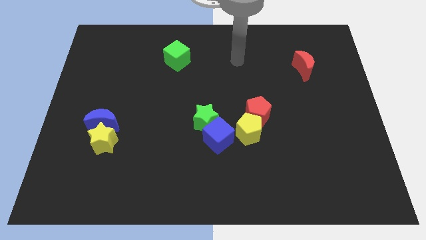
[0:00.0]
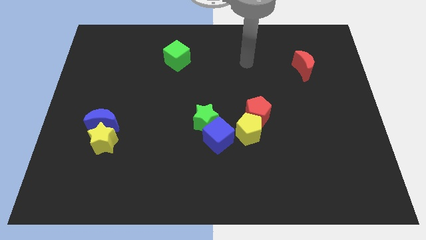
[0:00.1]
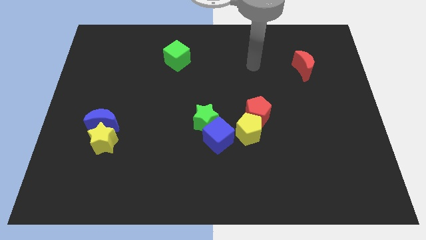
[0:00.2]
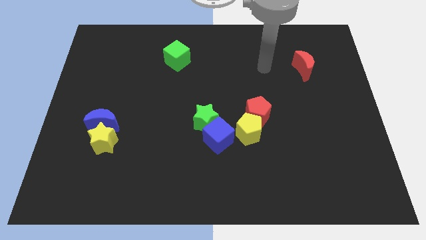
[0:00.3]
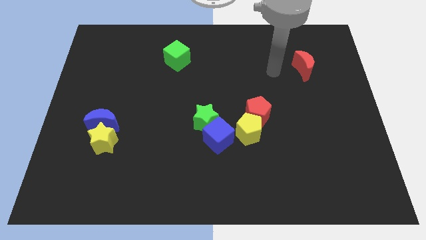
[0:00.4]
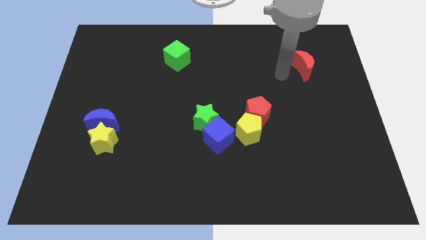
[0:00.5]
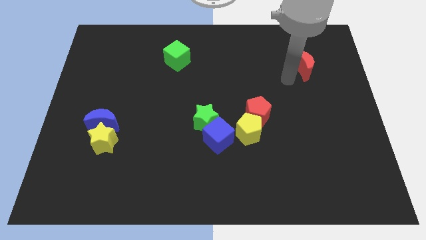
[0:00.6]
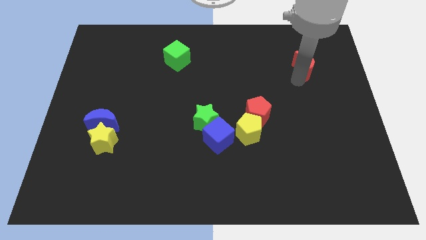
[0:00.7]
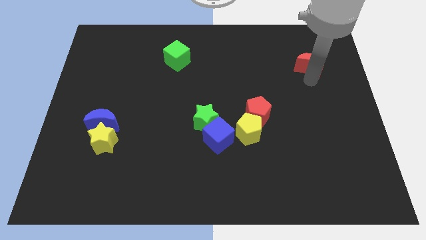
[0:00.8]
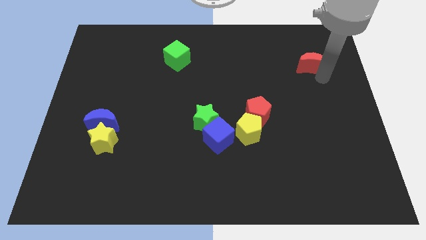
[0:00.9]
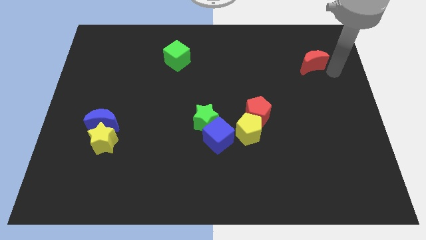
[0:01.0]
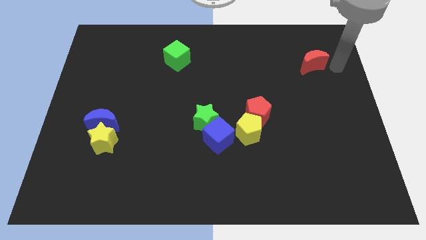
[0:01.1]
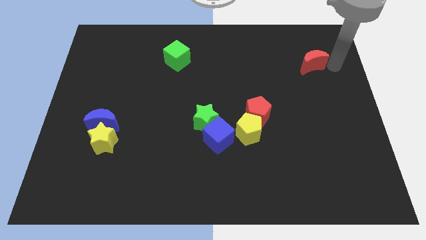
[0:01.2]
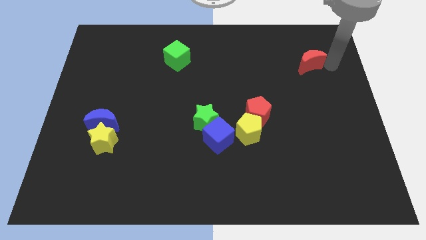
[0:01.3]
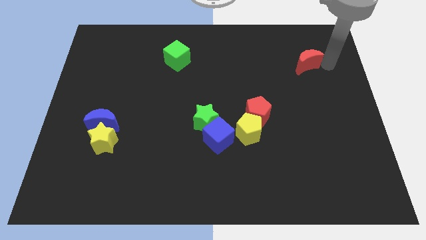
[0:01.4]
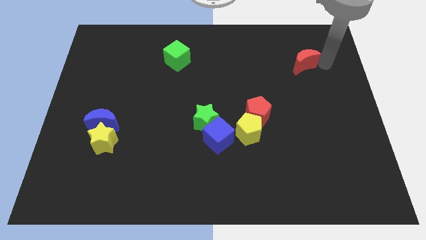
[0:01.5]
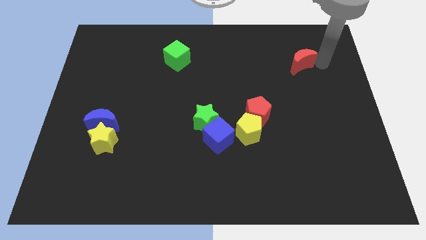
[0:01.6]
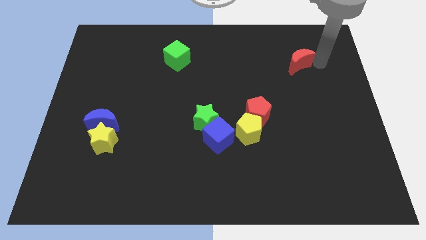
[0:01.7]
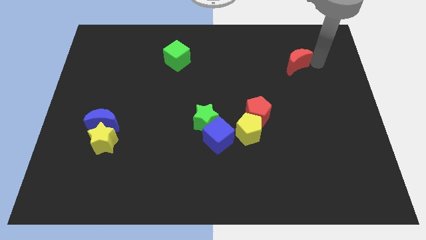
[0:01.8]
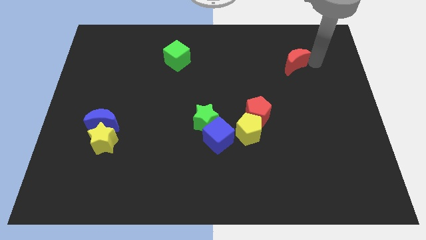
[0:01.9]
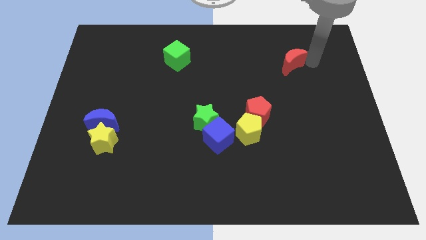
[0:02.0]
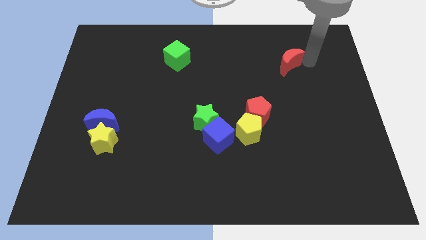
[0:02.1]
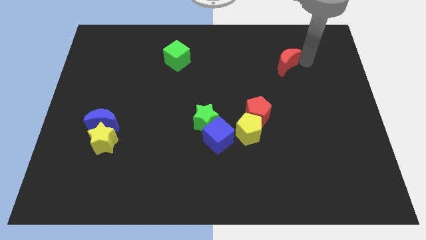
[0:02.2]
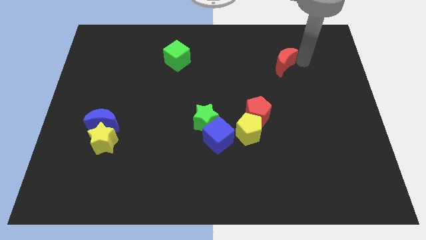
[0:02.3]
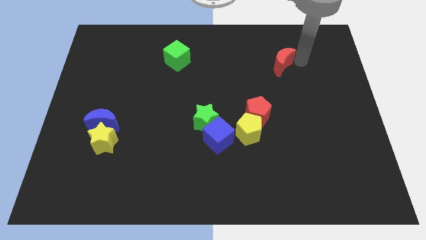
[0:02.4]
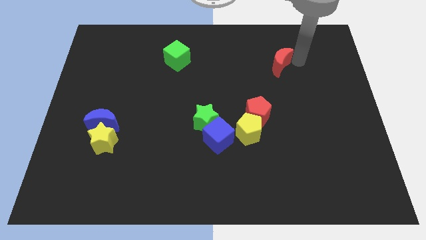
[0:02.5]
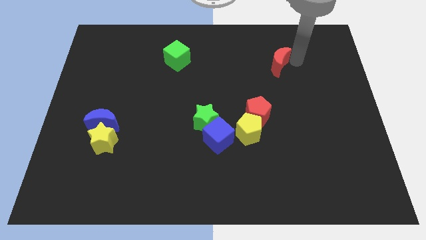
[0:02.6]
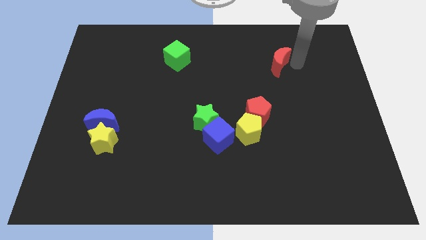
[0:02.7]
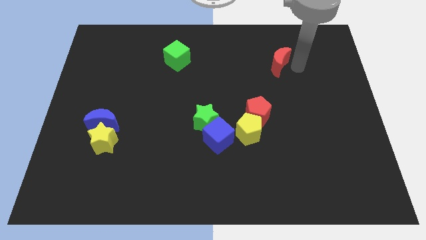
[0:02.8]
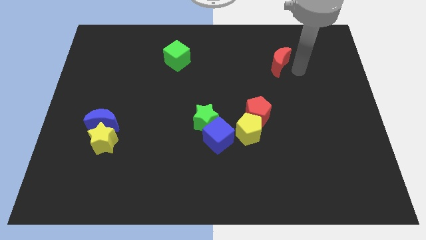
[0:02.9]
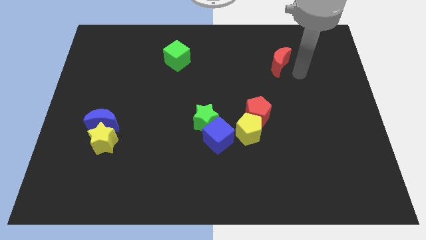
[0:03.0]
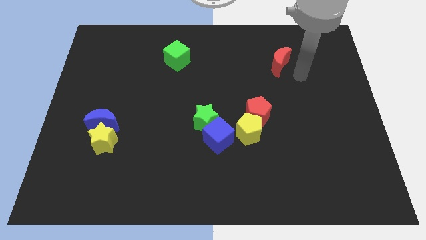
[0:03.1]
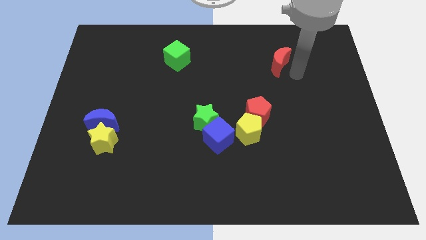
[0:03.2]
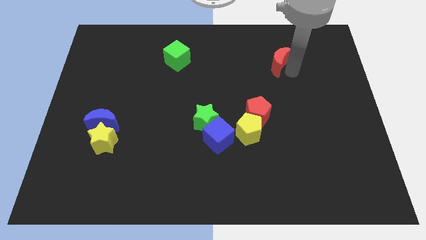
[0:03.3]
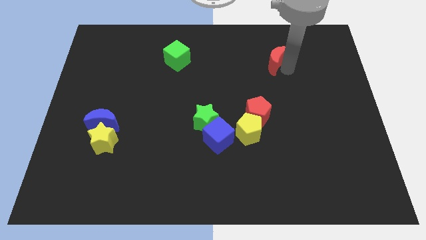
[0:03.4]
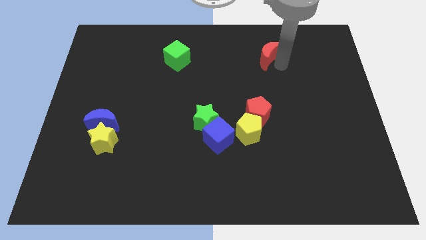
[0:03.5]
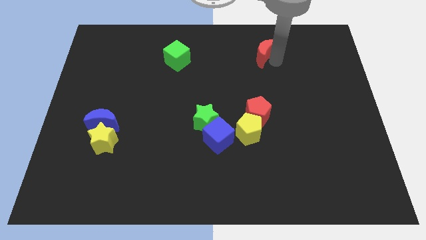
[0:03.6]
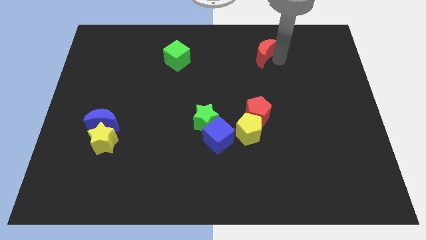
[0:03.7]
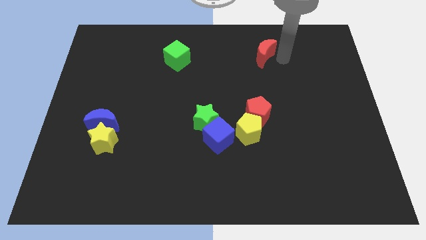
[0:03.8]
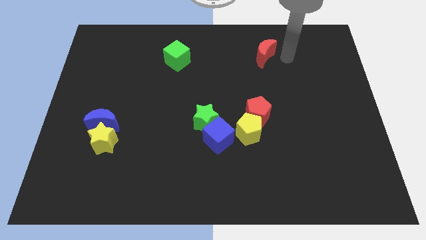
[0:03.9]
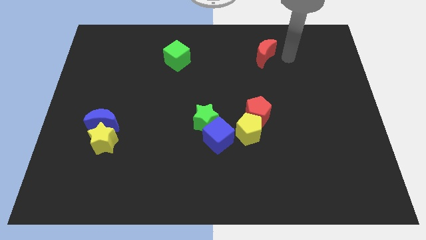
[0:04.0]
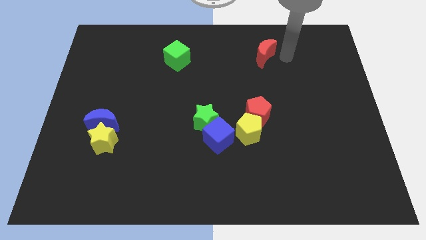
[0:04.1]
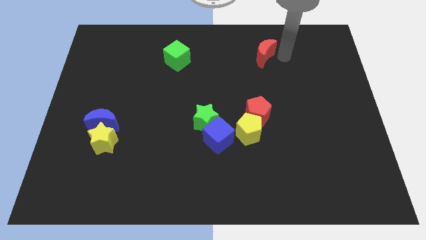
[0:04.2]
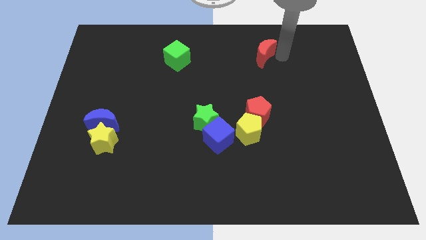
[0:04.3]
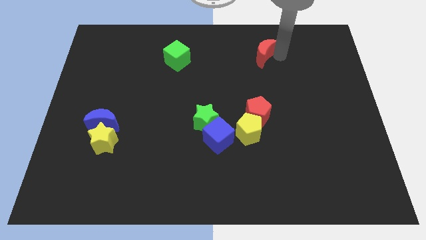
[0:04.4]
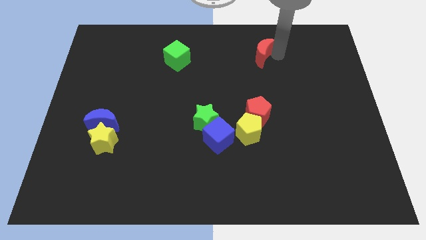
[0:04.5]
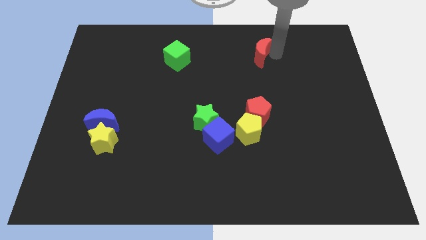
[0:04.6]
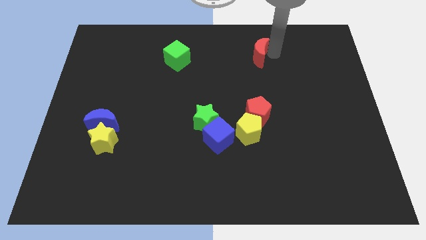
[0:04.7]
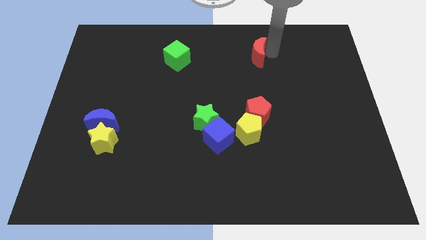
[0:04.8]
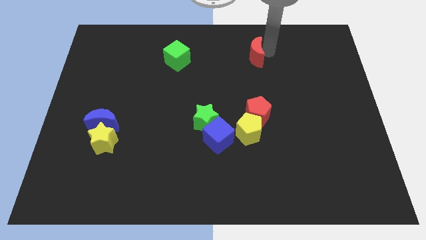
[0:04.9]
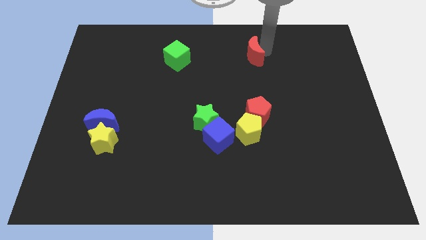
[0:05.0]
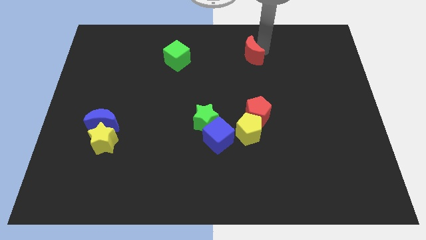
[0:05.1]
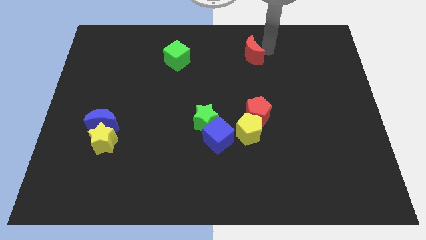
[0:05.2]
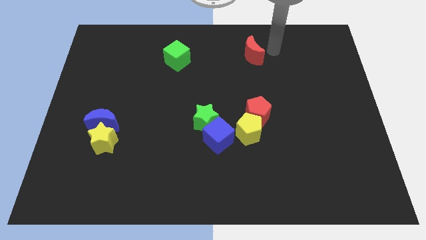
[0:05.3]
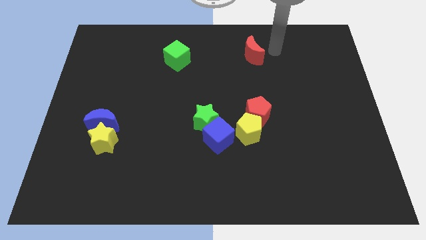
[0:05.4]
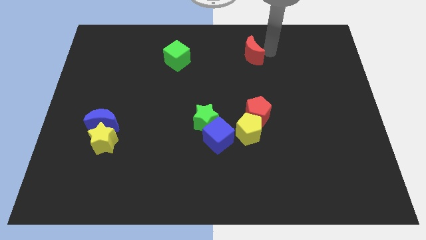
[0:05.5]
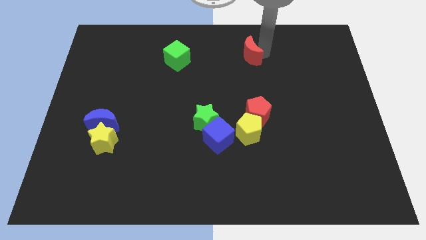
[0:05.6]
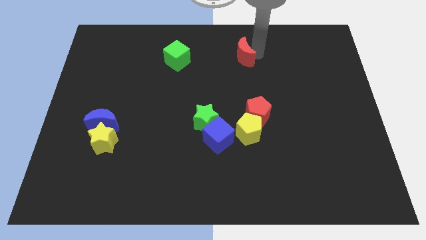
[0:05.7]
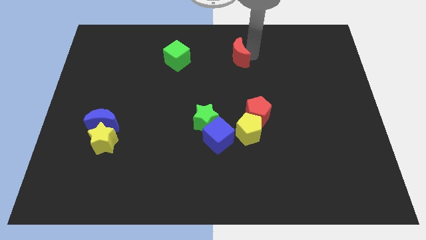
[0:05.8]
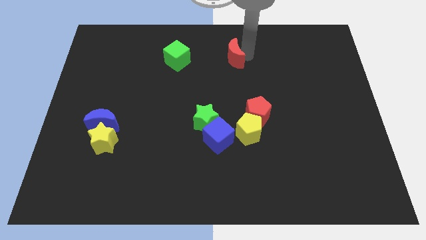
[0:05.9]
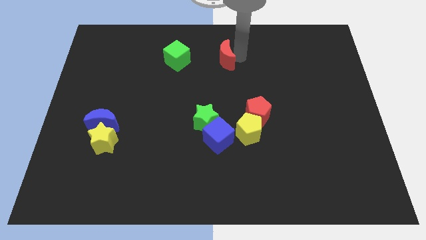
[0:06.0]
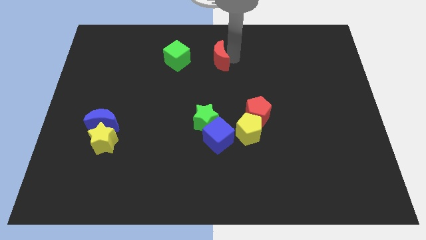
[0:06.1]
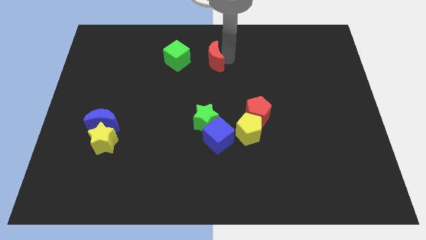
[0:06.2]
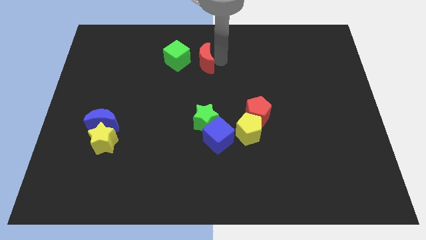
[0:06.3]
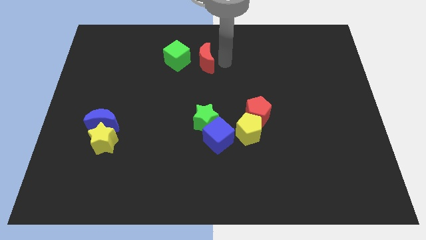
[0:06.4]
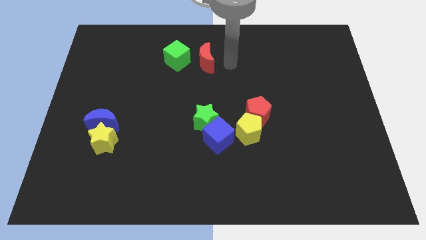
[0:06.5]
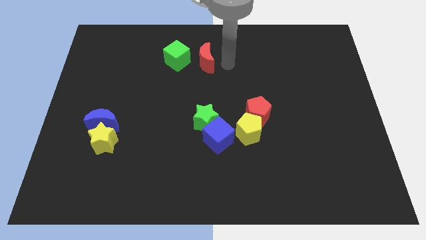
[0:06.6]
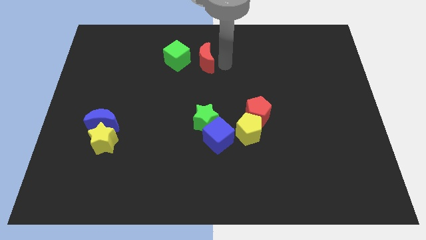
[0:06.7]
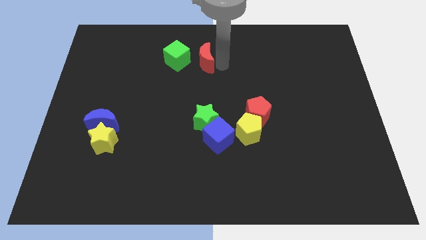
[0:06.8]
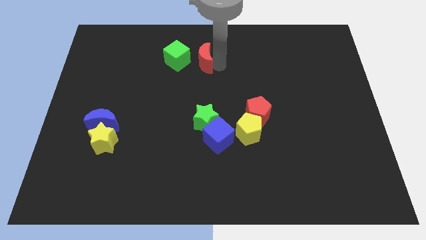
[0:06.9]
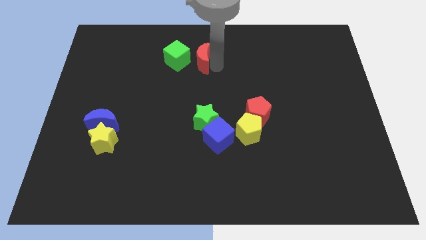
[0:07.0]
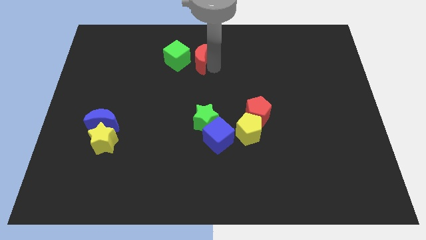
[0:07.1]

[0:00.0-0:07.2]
push the red moon next to the green cube
